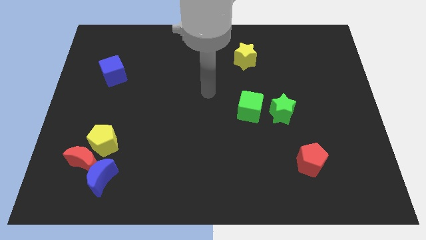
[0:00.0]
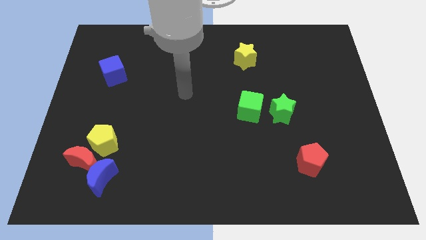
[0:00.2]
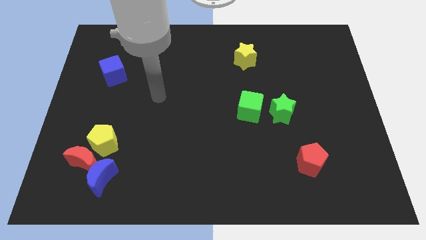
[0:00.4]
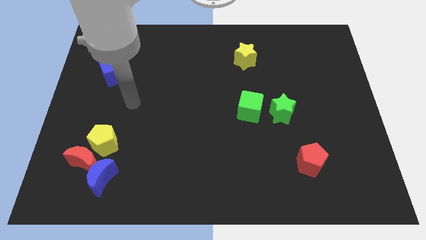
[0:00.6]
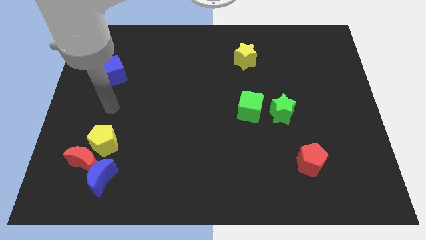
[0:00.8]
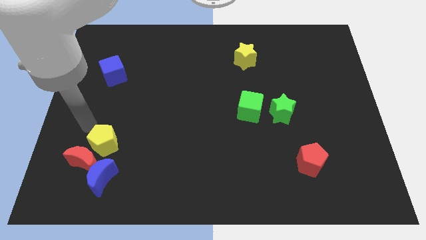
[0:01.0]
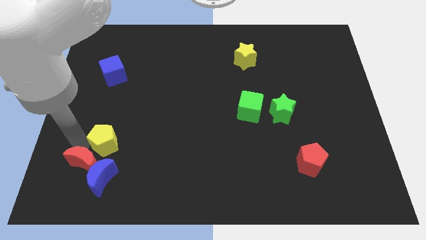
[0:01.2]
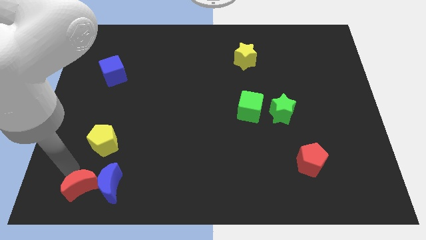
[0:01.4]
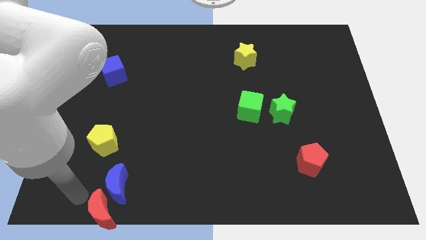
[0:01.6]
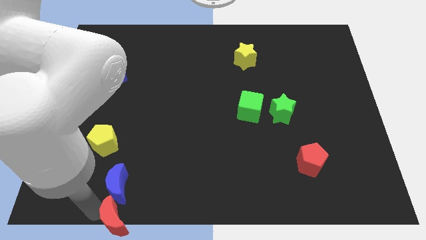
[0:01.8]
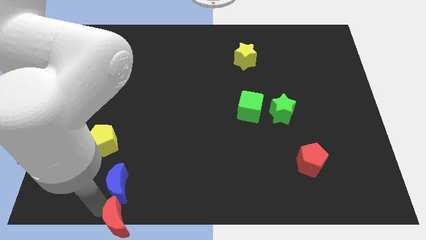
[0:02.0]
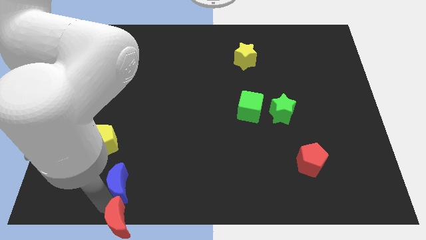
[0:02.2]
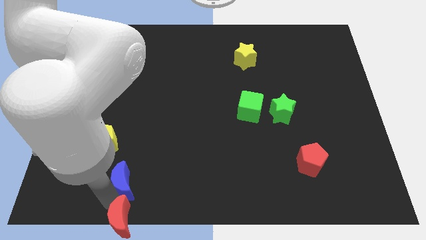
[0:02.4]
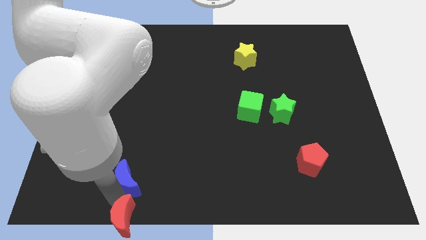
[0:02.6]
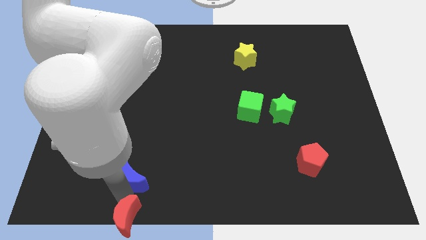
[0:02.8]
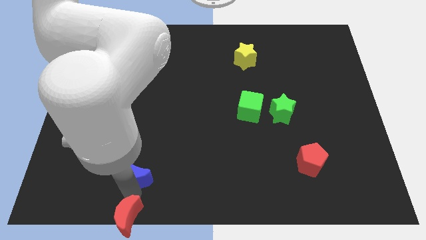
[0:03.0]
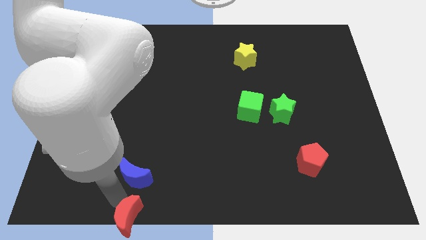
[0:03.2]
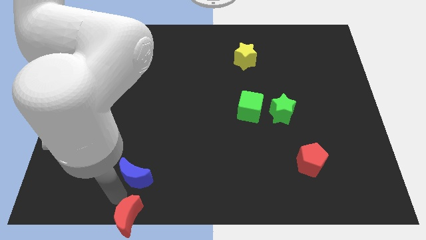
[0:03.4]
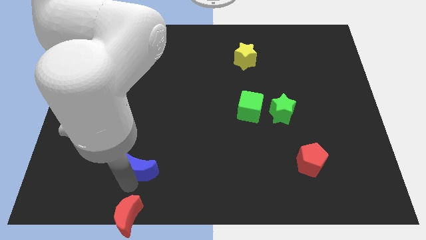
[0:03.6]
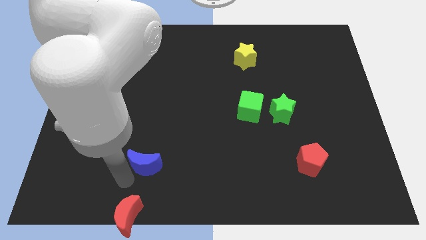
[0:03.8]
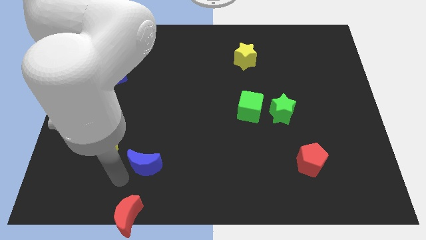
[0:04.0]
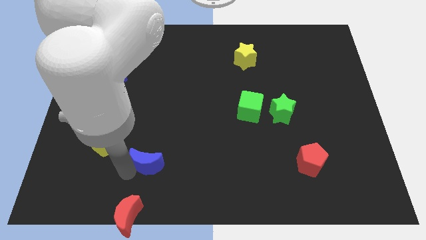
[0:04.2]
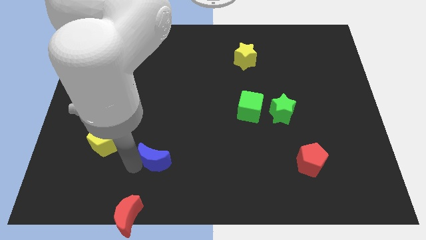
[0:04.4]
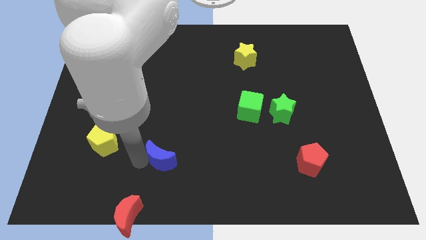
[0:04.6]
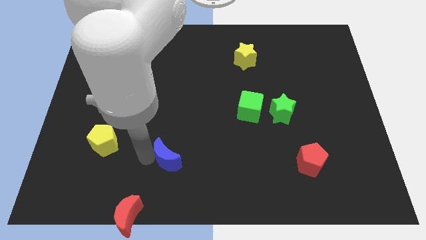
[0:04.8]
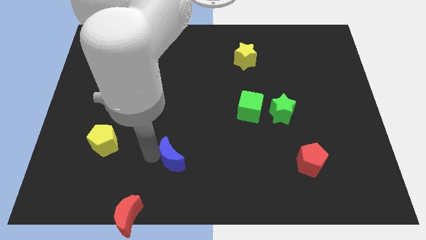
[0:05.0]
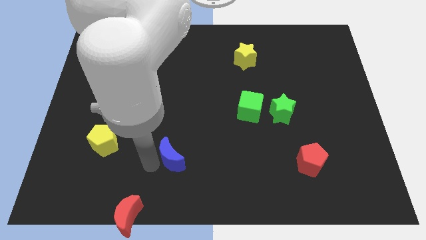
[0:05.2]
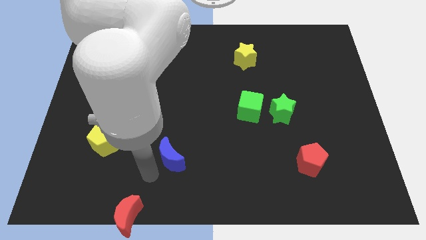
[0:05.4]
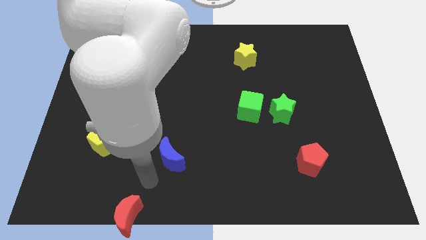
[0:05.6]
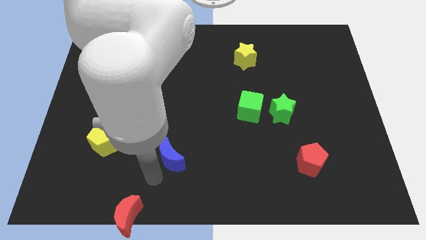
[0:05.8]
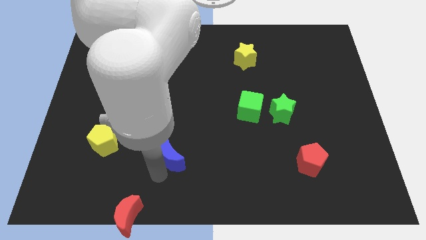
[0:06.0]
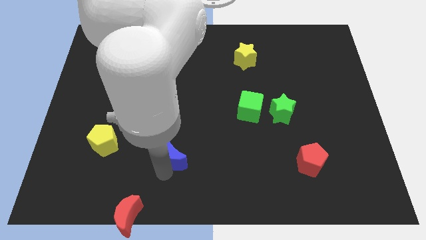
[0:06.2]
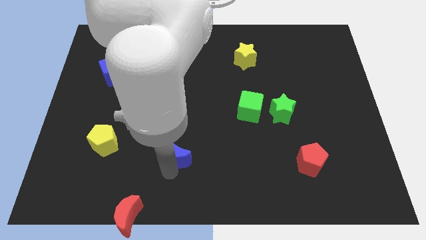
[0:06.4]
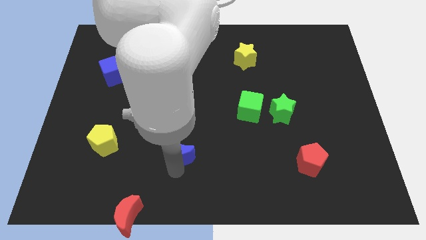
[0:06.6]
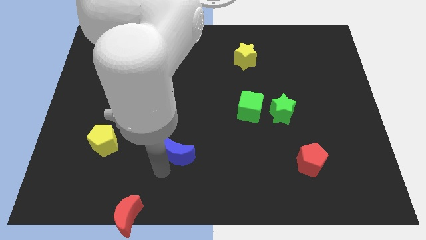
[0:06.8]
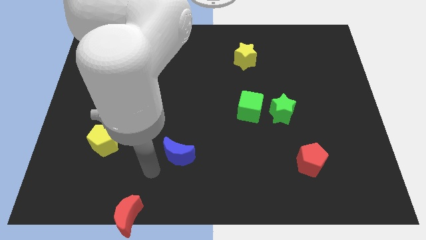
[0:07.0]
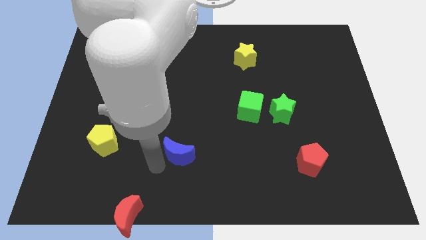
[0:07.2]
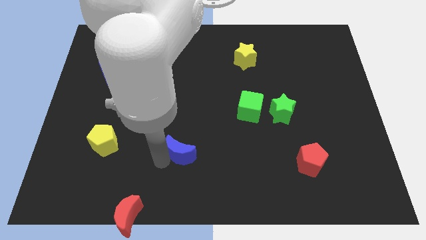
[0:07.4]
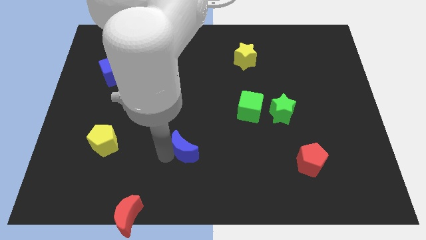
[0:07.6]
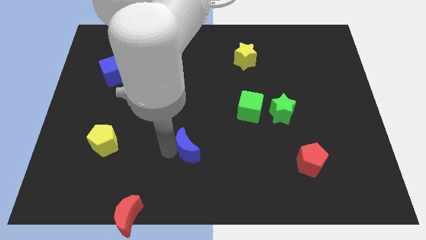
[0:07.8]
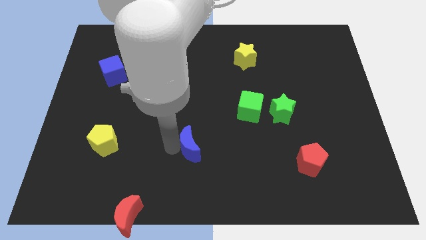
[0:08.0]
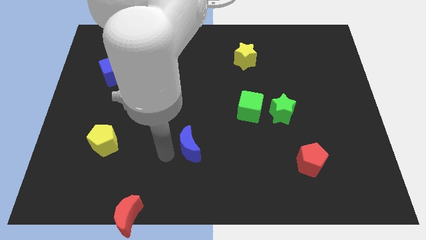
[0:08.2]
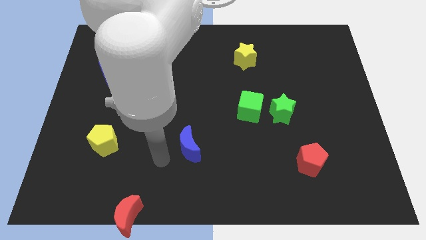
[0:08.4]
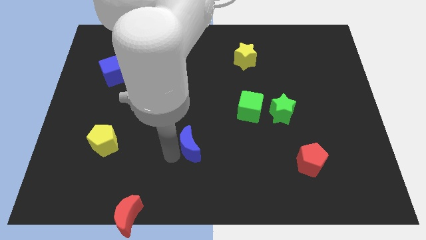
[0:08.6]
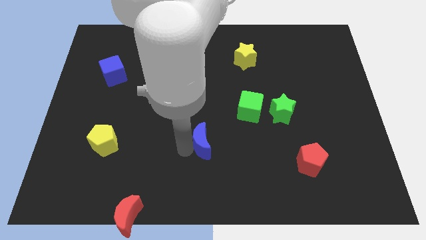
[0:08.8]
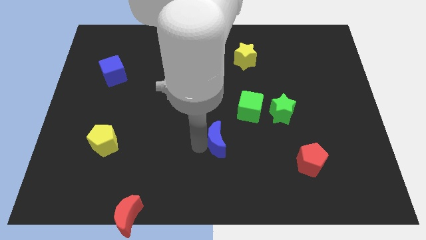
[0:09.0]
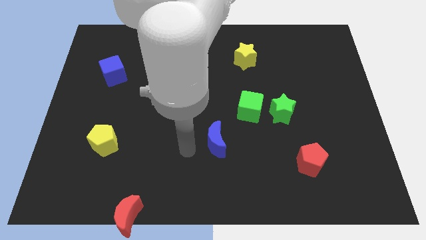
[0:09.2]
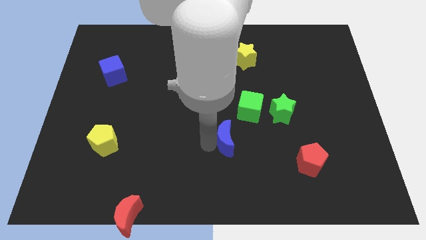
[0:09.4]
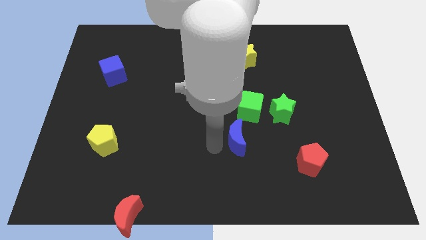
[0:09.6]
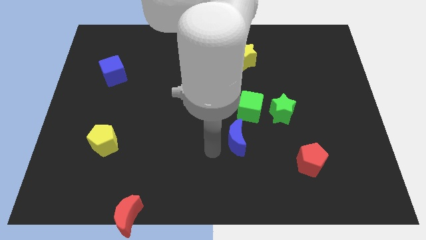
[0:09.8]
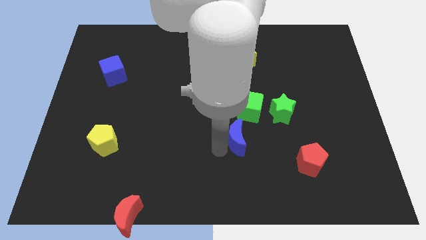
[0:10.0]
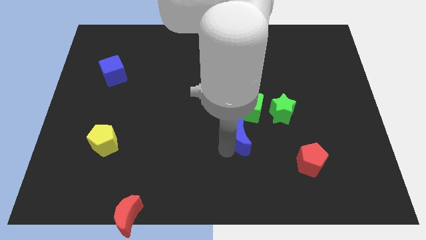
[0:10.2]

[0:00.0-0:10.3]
put the blue moon to the bottom left of the green star

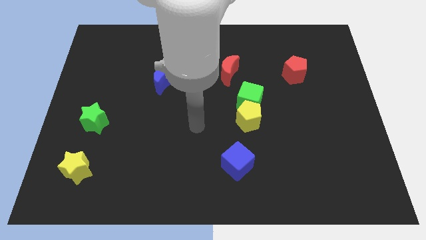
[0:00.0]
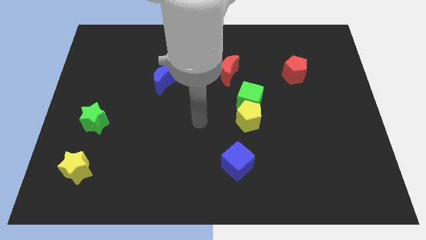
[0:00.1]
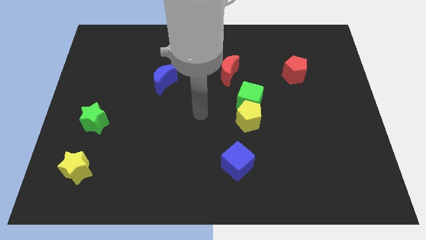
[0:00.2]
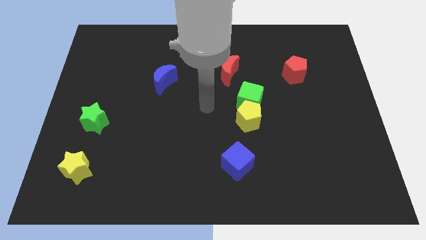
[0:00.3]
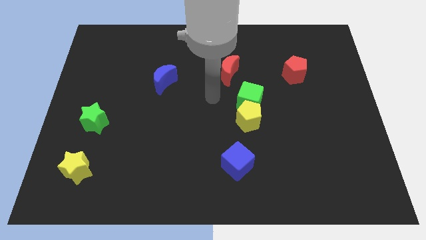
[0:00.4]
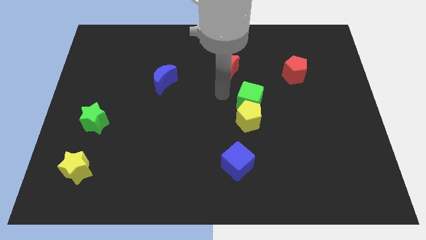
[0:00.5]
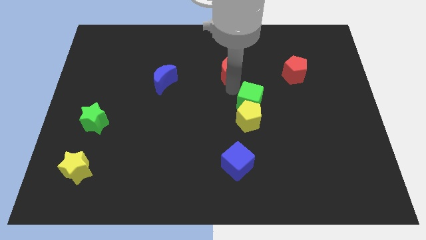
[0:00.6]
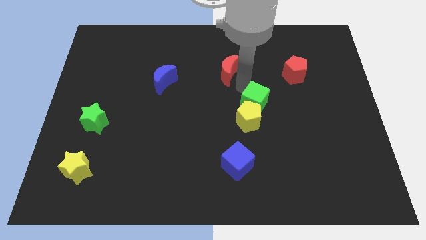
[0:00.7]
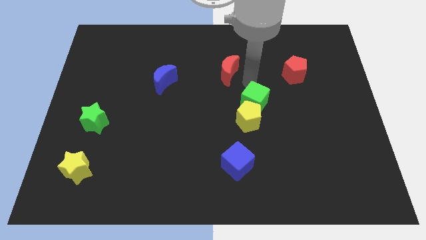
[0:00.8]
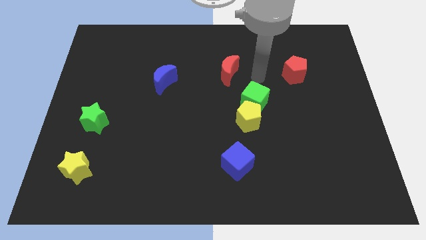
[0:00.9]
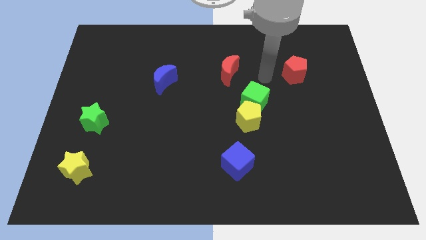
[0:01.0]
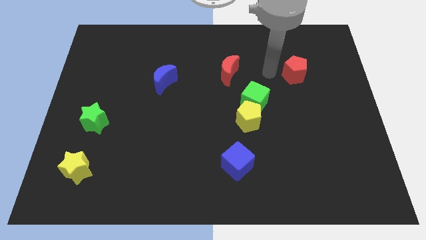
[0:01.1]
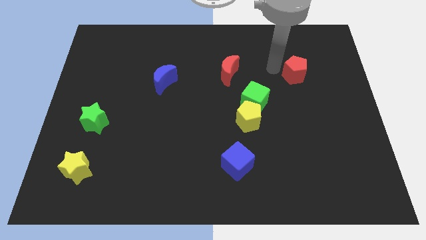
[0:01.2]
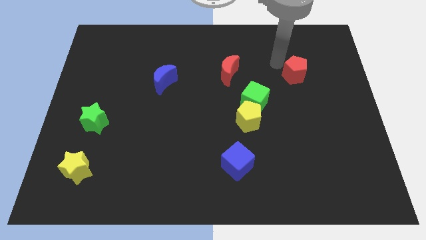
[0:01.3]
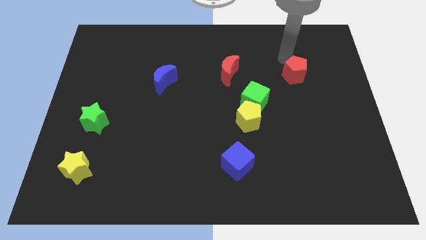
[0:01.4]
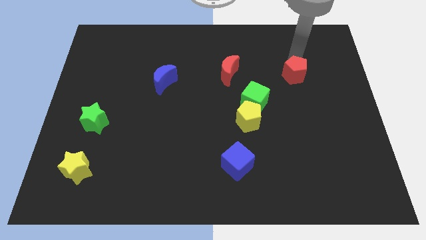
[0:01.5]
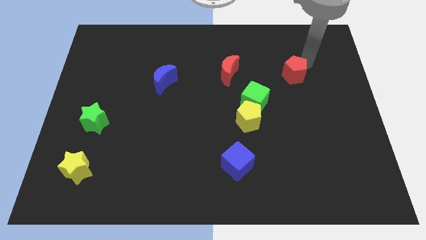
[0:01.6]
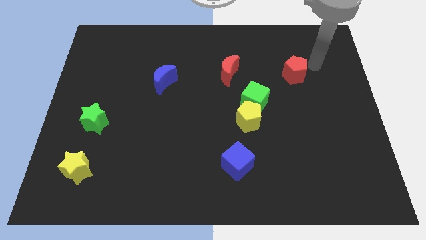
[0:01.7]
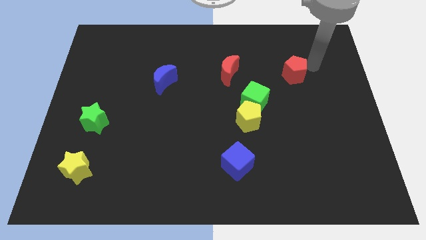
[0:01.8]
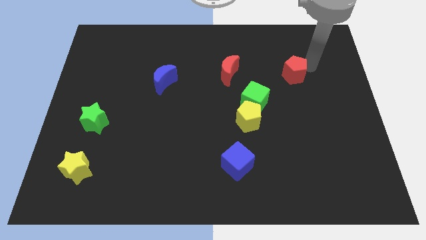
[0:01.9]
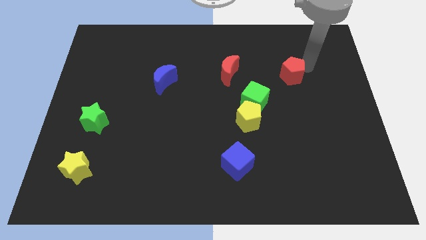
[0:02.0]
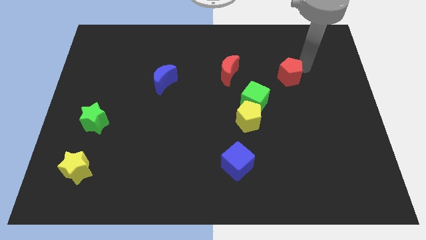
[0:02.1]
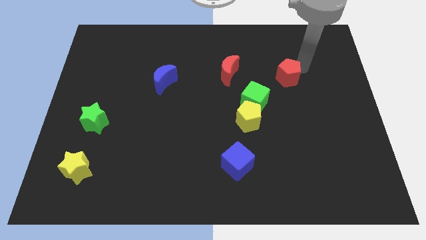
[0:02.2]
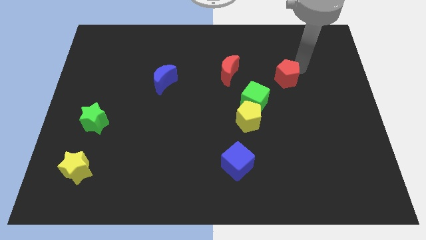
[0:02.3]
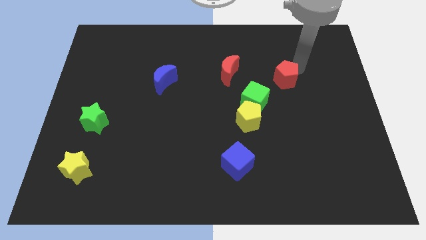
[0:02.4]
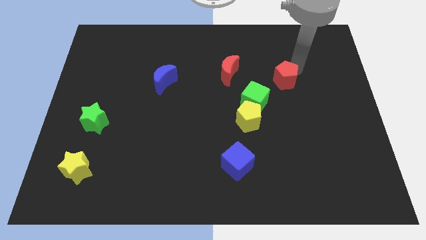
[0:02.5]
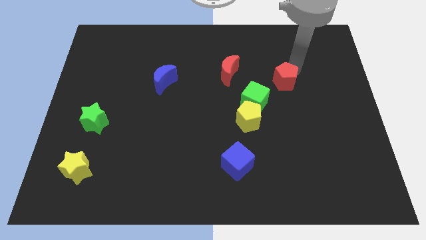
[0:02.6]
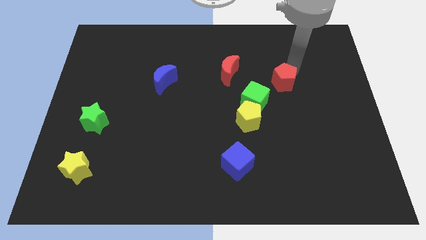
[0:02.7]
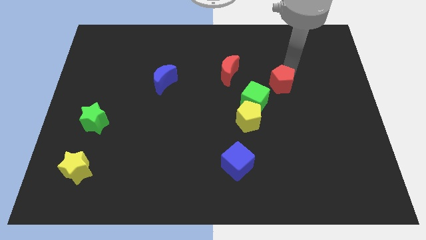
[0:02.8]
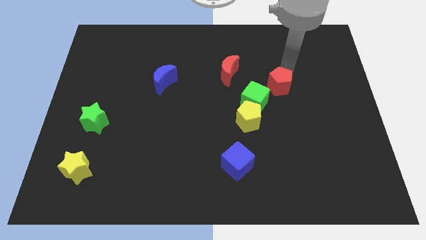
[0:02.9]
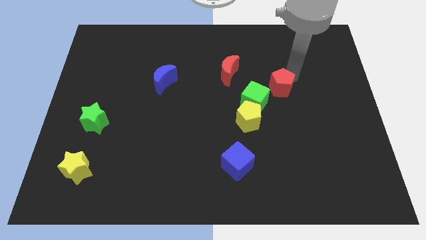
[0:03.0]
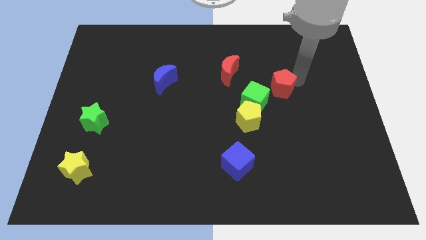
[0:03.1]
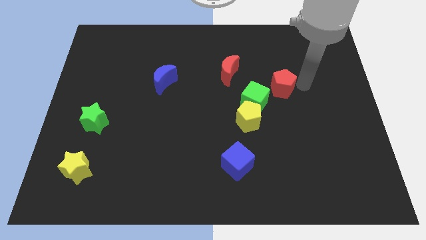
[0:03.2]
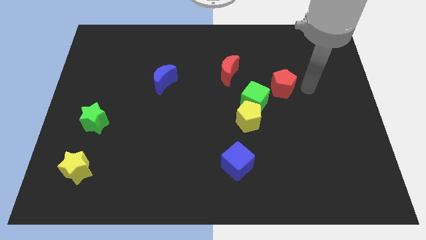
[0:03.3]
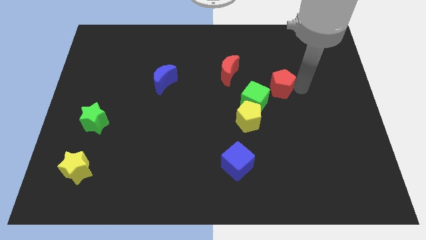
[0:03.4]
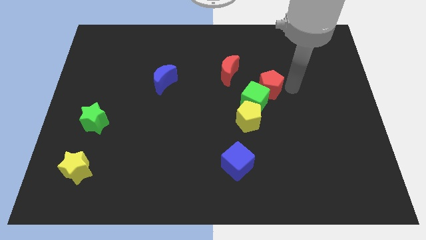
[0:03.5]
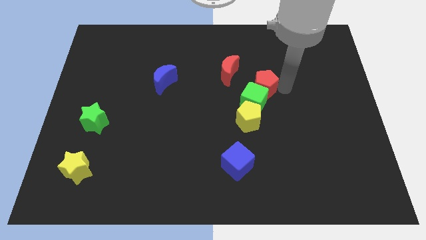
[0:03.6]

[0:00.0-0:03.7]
put the red pentagon to the top side of the yellow pentagon
